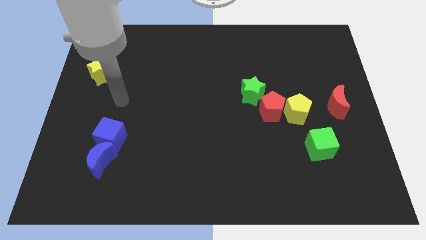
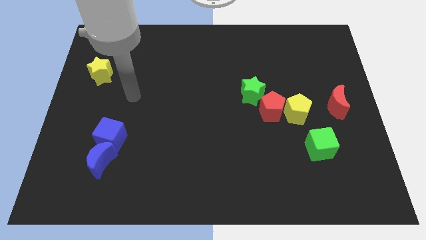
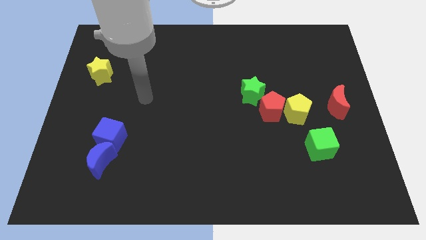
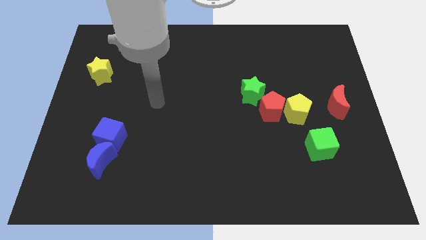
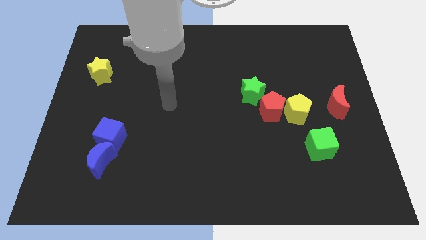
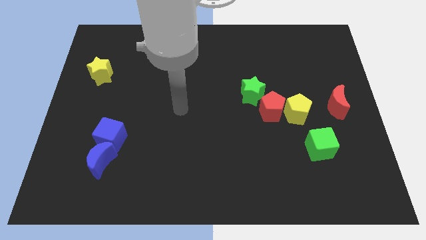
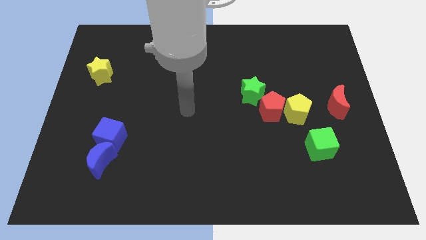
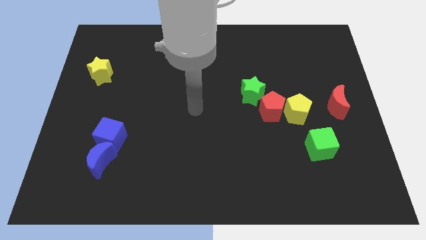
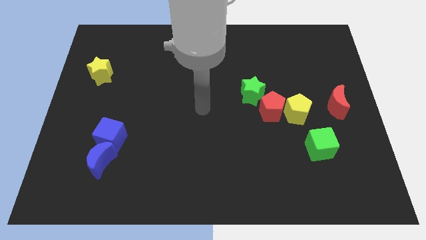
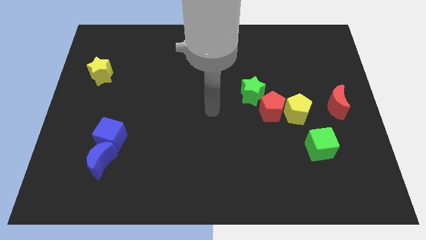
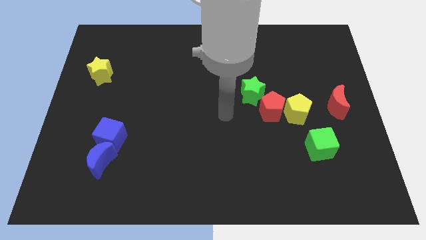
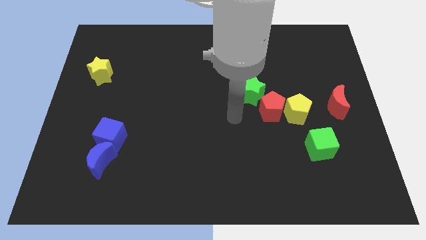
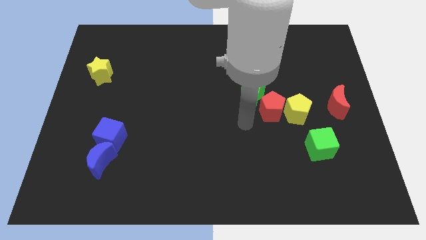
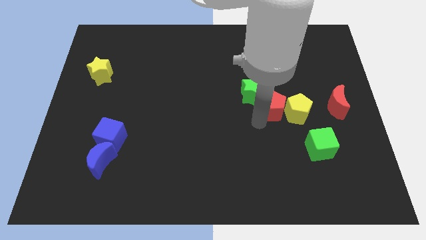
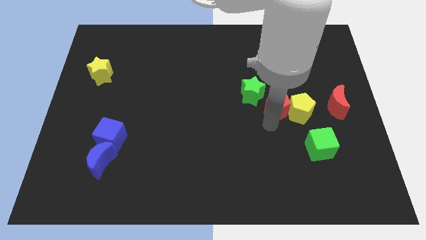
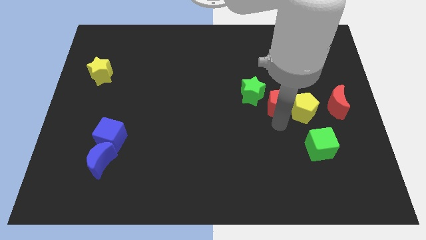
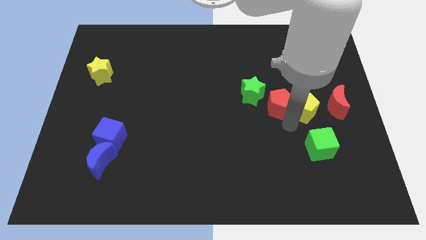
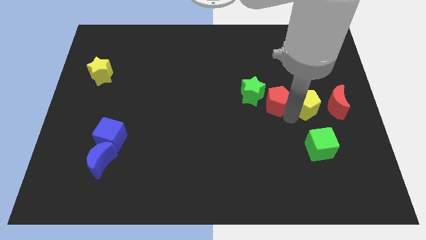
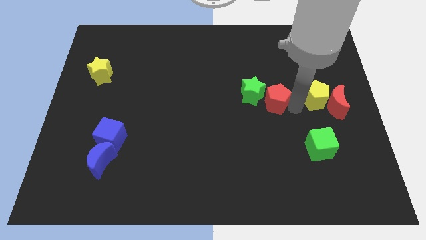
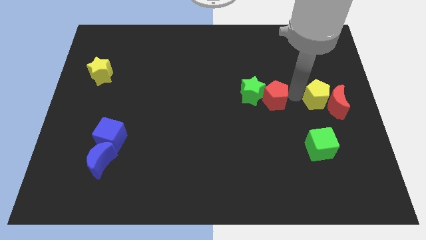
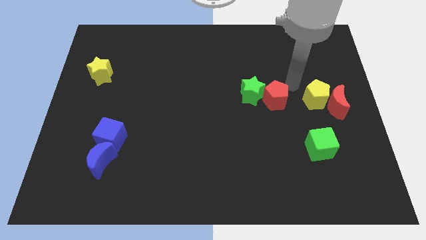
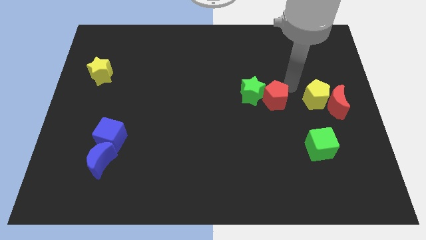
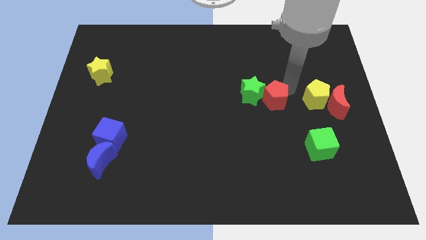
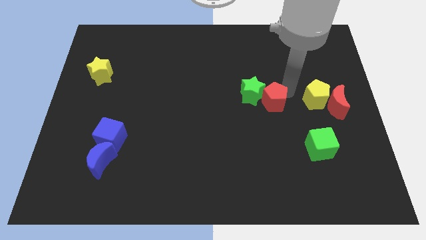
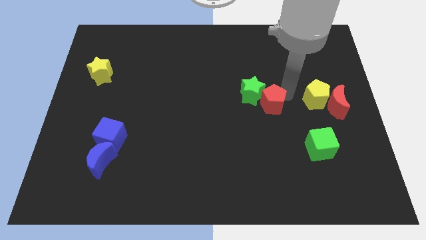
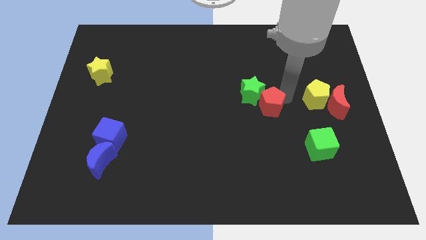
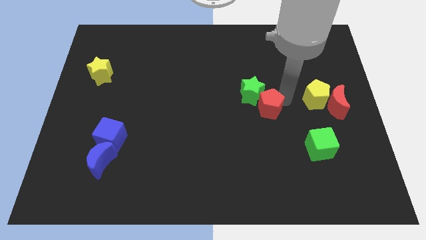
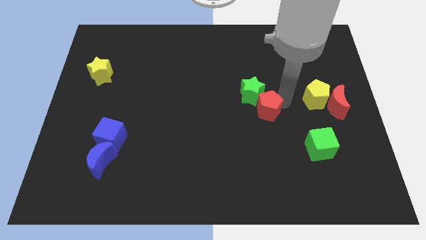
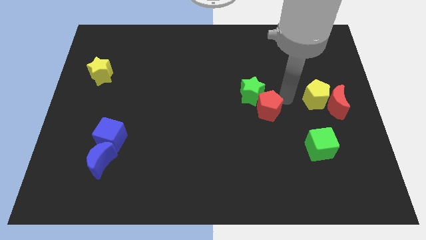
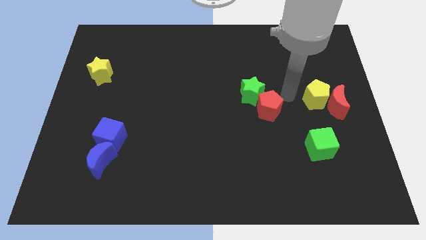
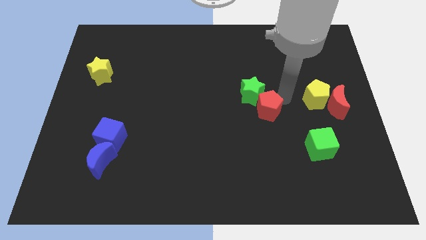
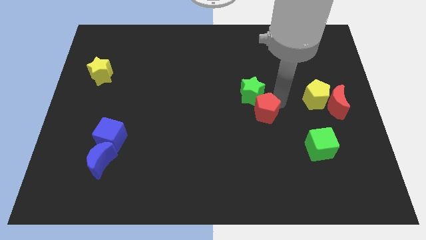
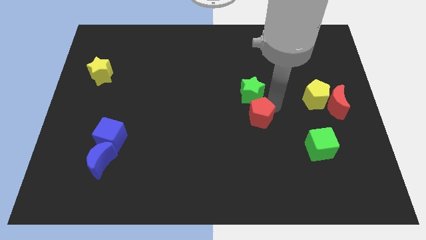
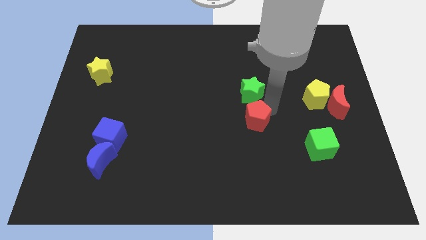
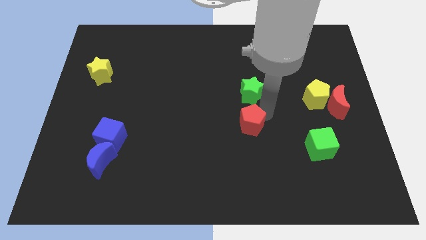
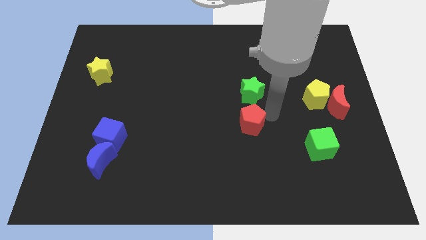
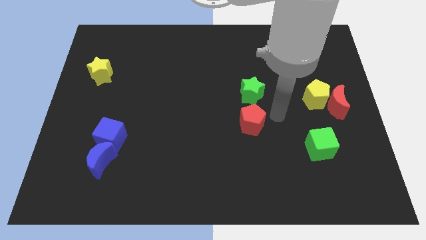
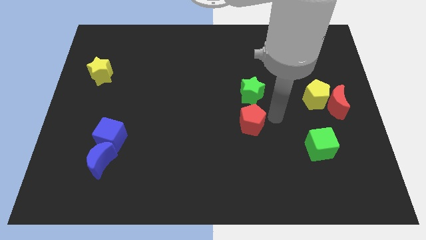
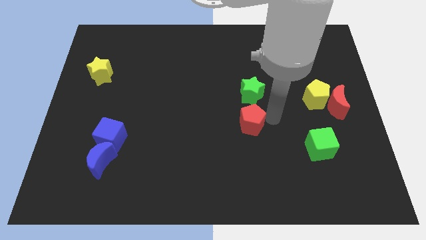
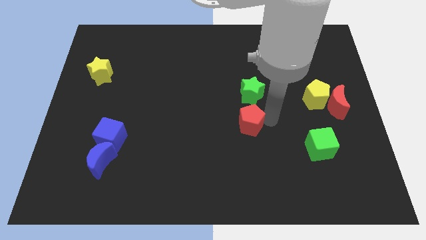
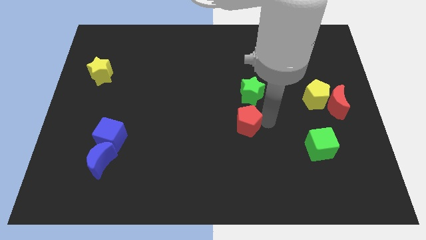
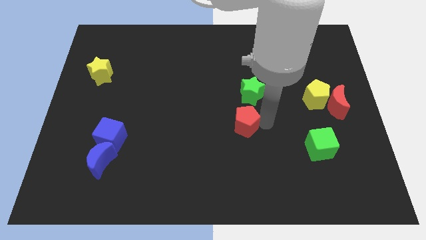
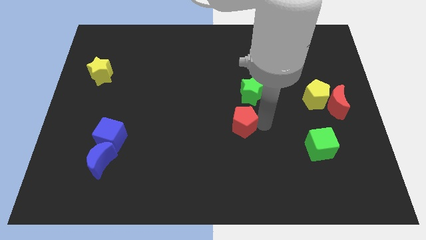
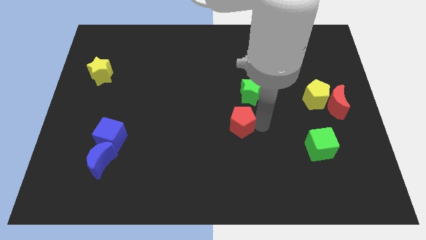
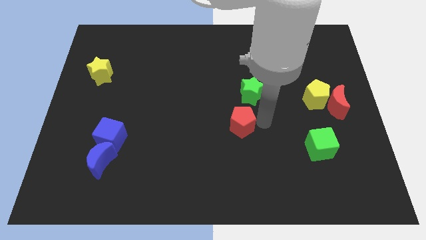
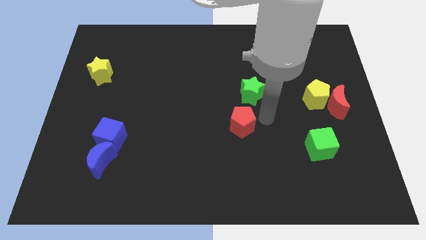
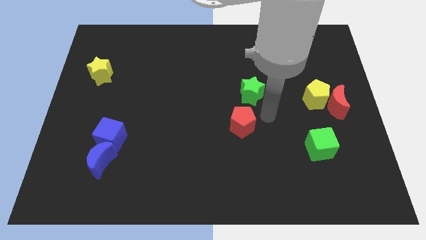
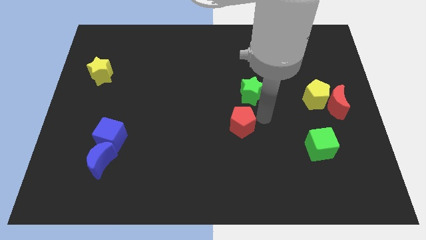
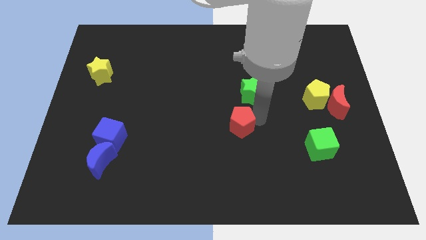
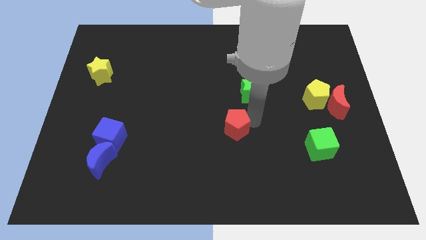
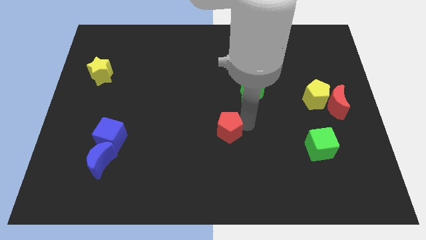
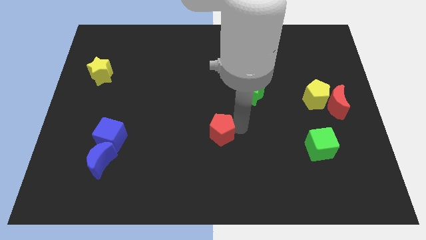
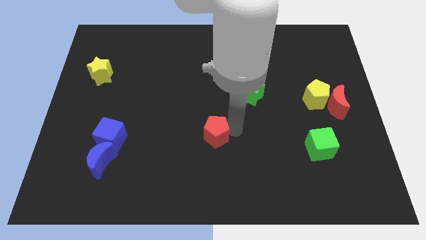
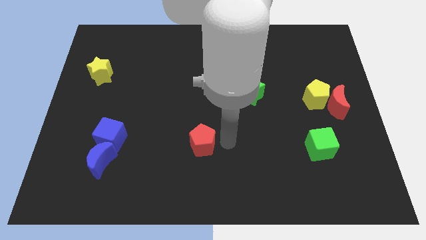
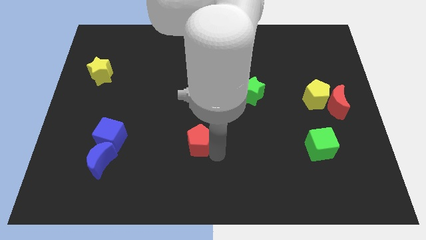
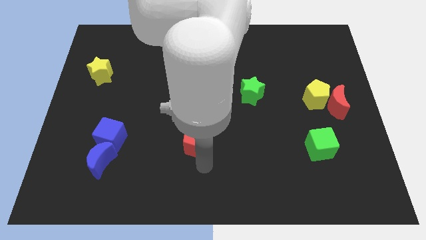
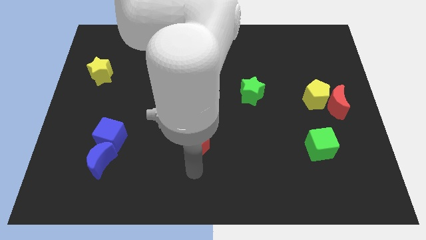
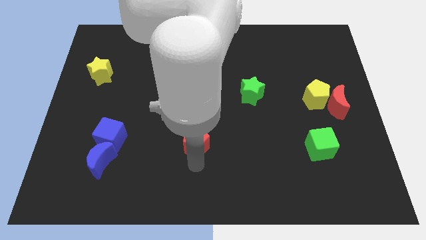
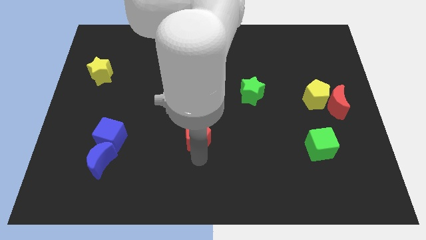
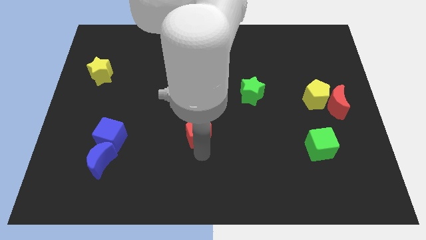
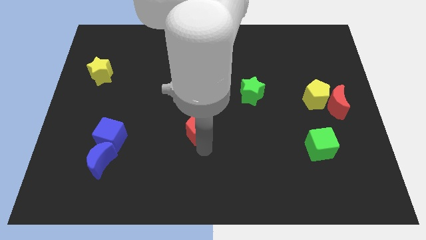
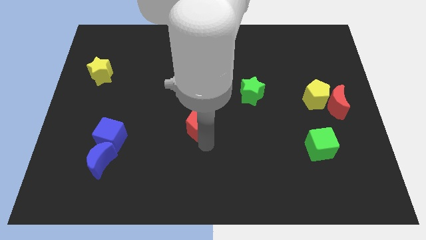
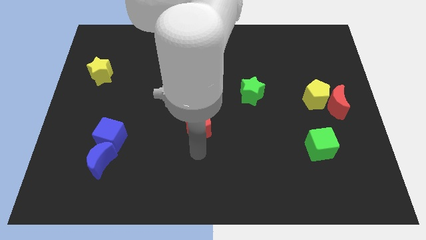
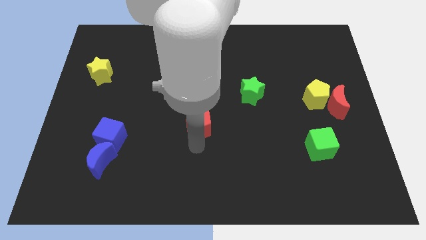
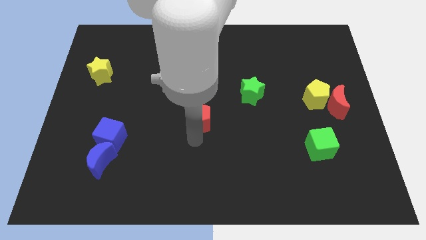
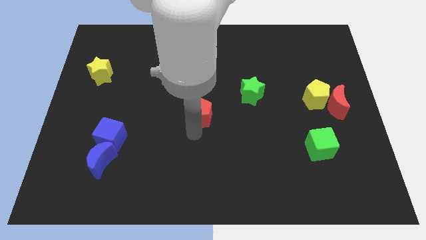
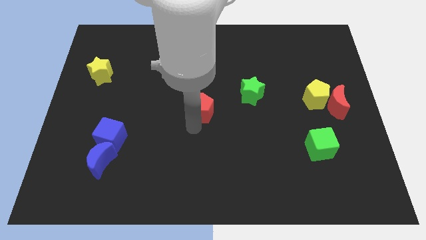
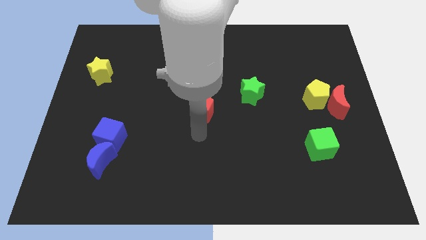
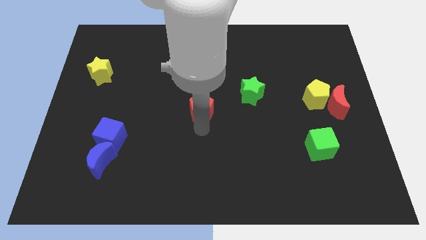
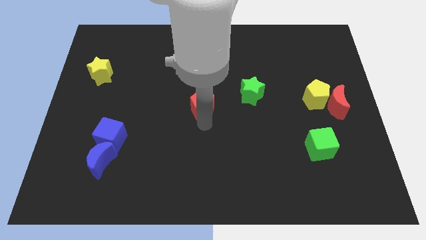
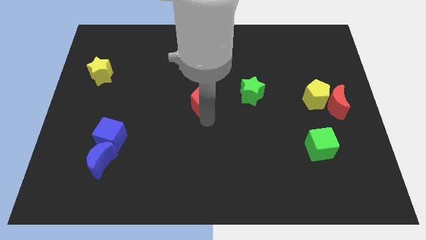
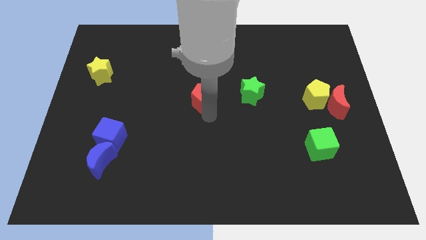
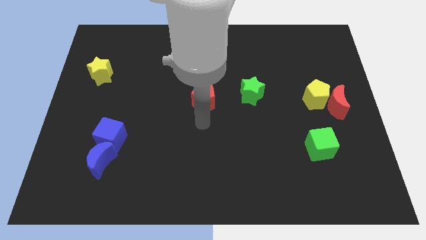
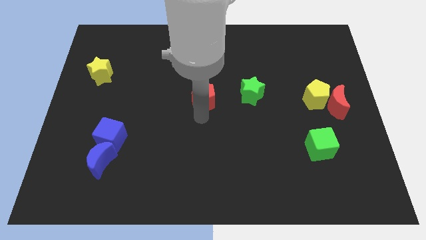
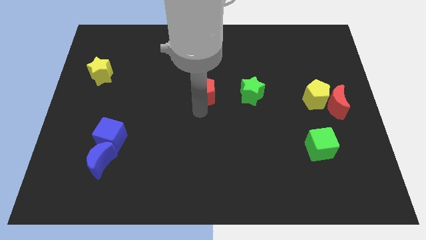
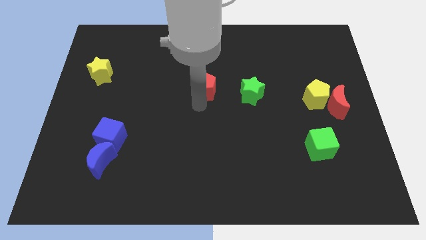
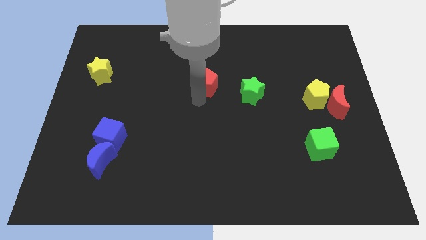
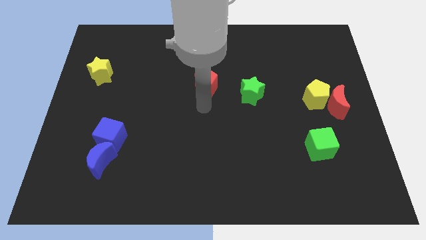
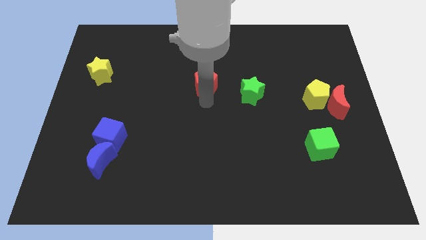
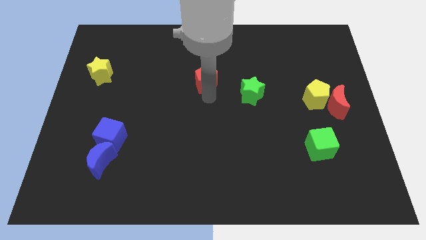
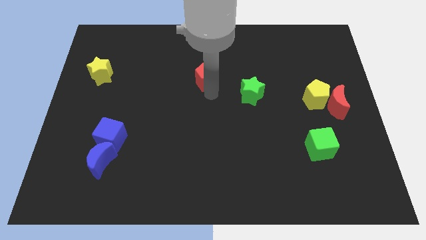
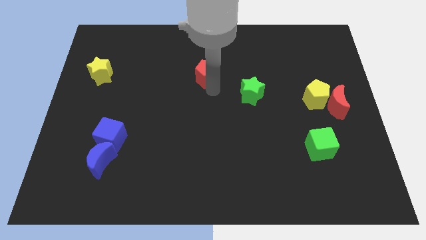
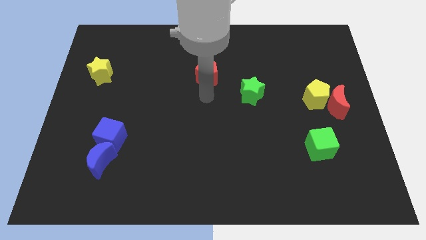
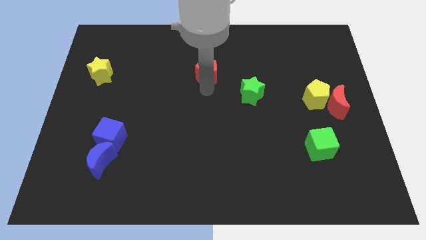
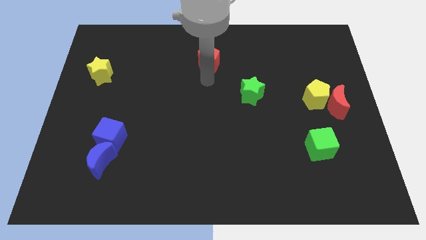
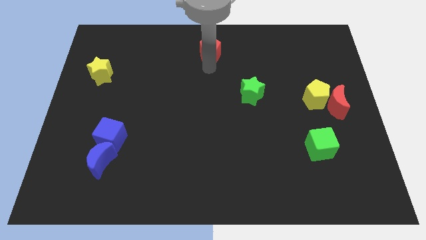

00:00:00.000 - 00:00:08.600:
push the red pentagon to the top side
